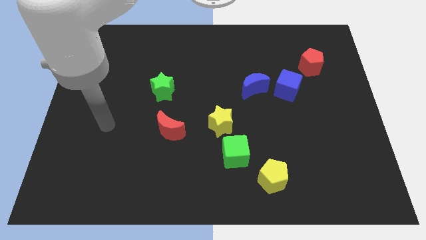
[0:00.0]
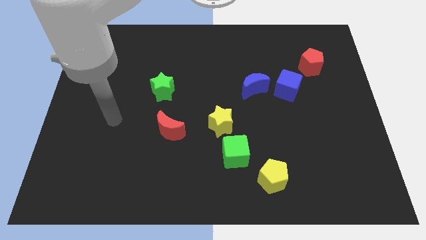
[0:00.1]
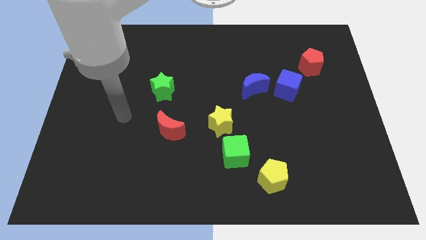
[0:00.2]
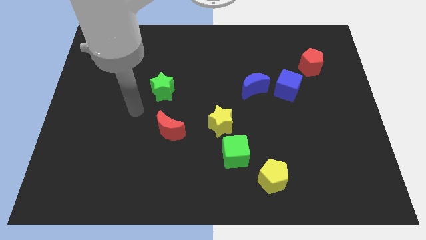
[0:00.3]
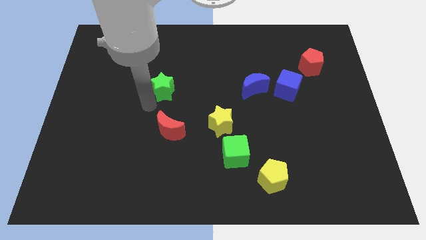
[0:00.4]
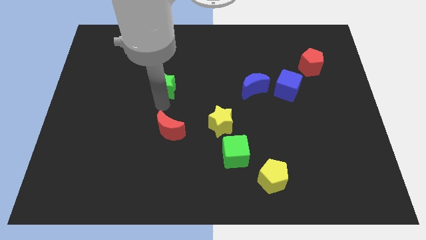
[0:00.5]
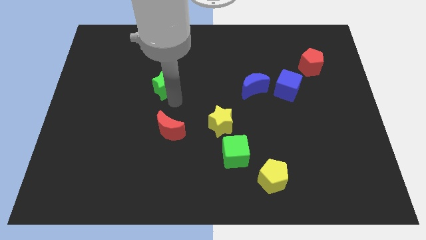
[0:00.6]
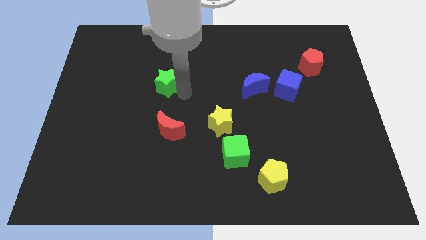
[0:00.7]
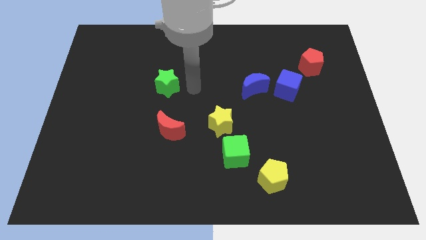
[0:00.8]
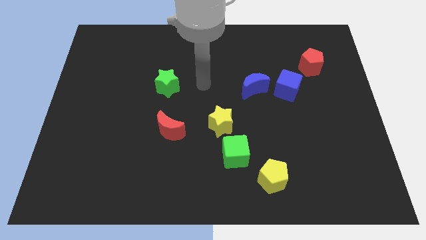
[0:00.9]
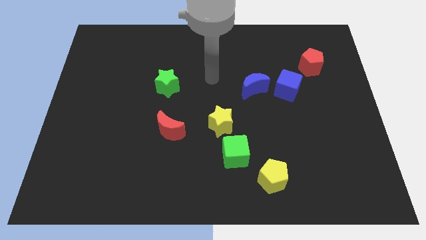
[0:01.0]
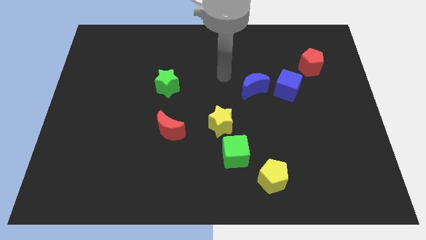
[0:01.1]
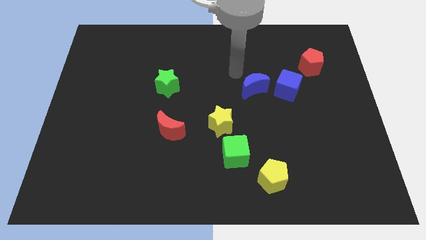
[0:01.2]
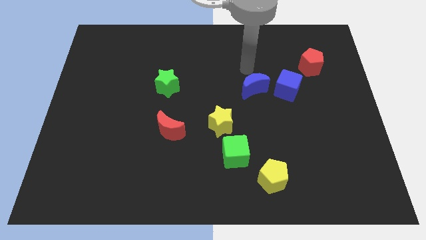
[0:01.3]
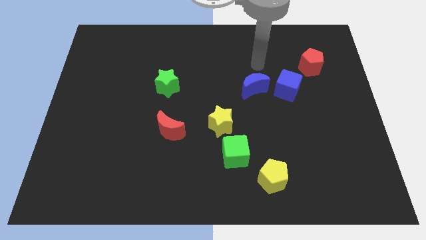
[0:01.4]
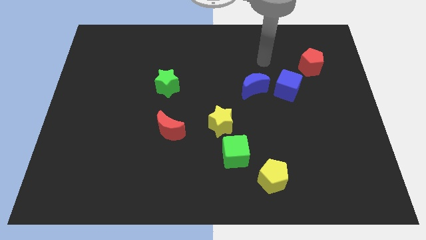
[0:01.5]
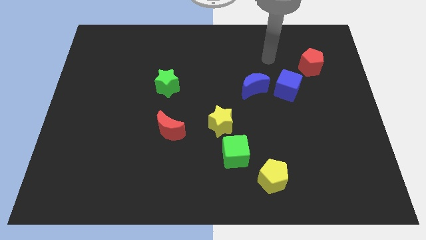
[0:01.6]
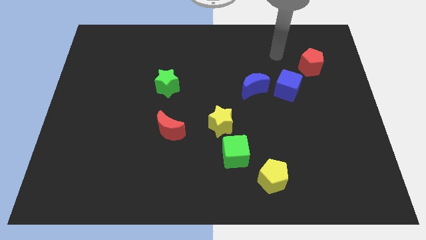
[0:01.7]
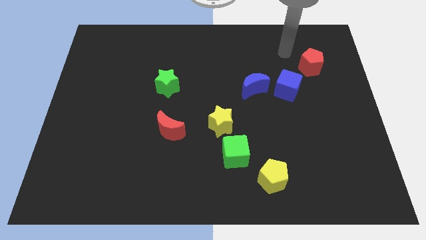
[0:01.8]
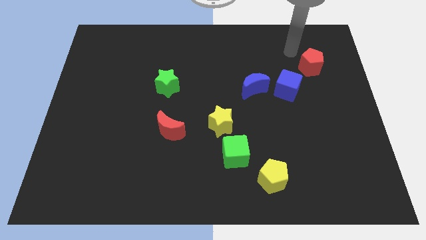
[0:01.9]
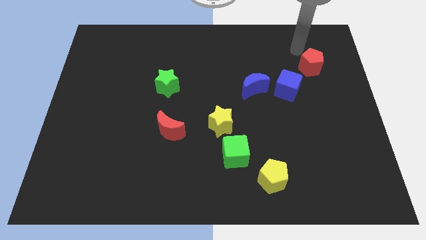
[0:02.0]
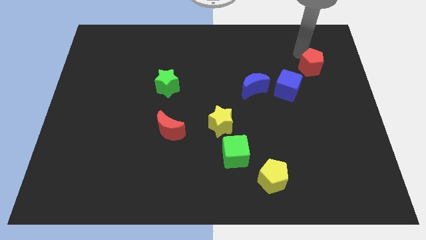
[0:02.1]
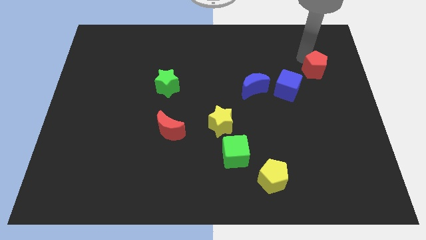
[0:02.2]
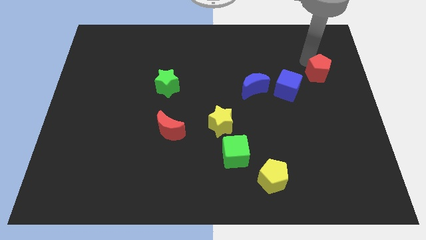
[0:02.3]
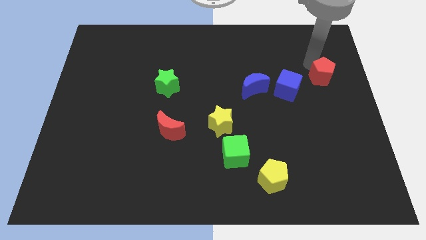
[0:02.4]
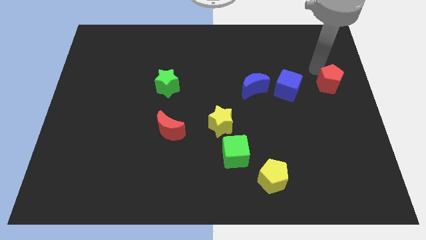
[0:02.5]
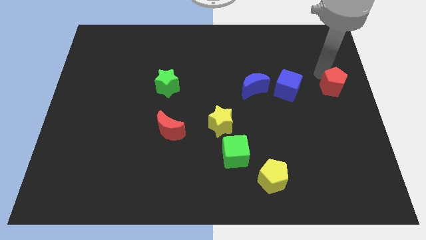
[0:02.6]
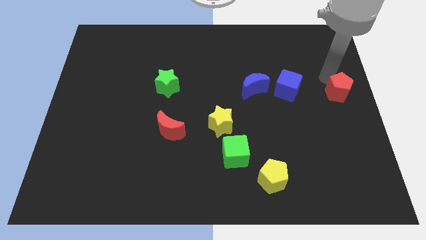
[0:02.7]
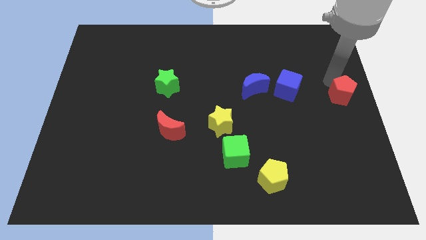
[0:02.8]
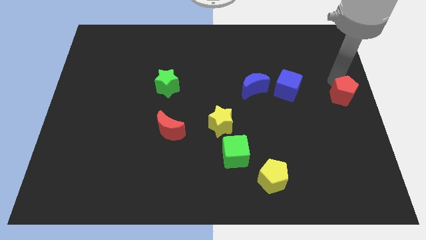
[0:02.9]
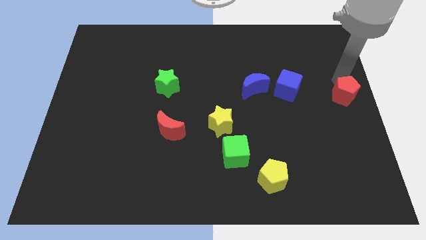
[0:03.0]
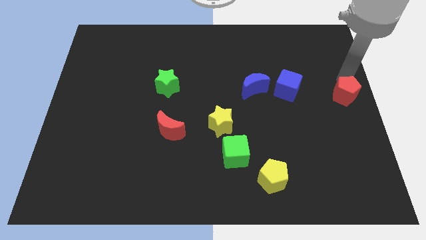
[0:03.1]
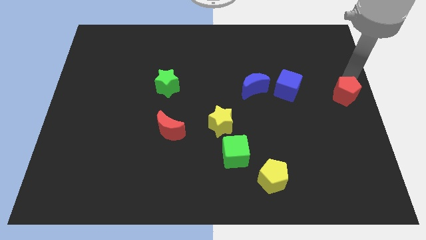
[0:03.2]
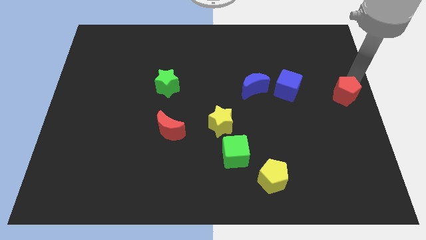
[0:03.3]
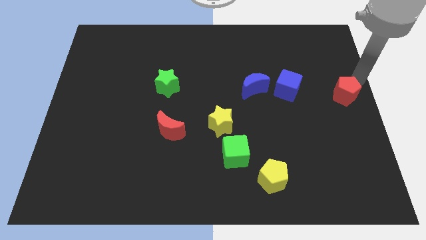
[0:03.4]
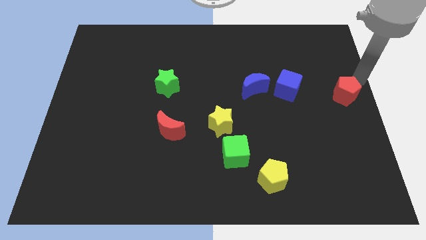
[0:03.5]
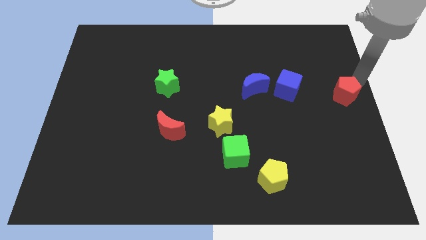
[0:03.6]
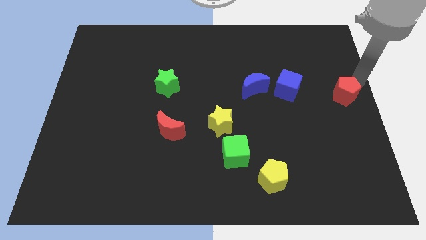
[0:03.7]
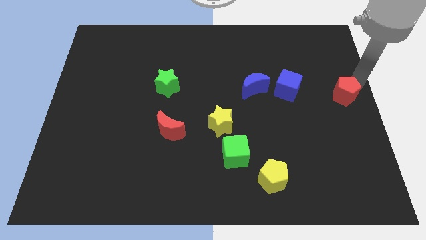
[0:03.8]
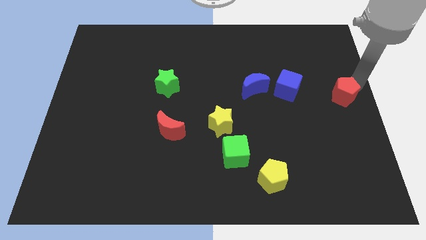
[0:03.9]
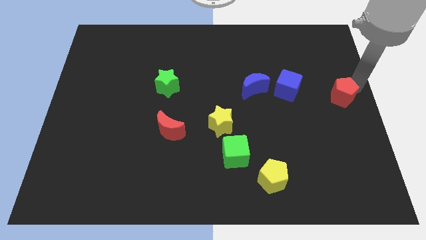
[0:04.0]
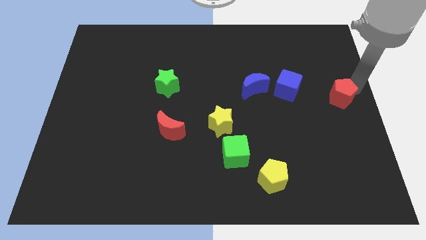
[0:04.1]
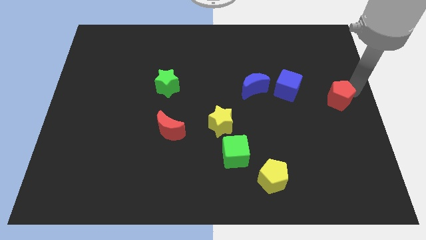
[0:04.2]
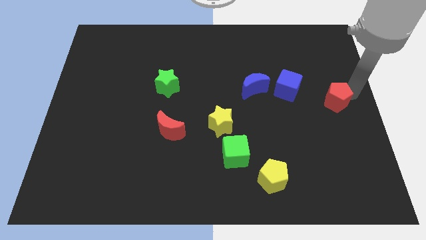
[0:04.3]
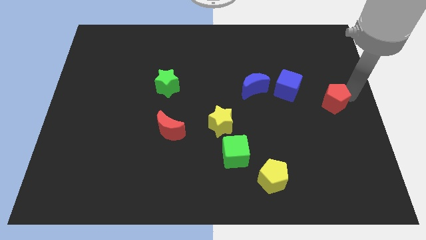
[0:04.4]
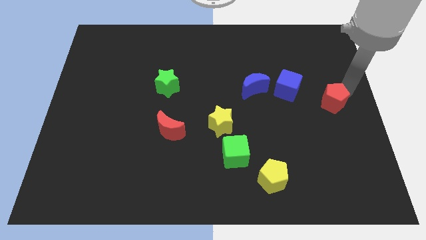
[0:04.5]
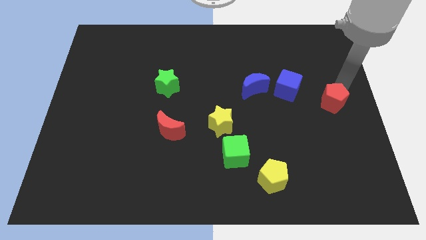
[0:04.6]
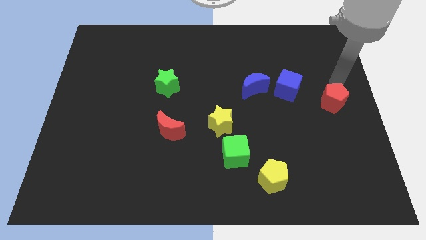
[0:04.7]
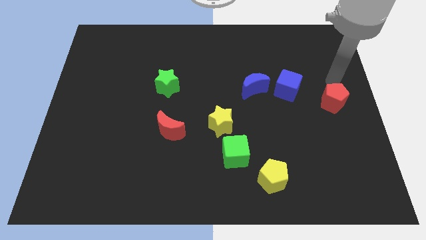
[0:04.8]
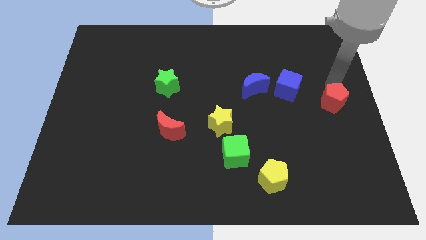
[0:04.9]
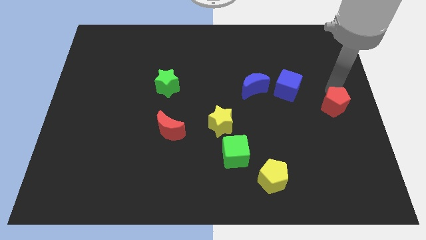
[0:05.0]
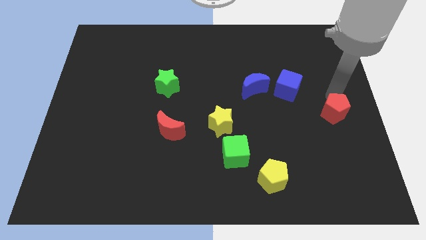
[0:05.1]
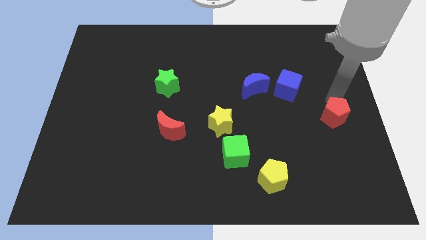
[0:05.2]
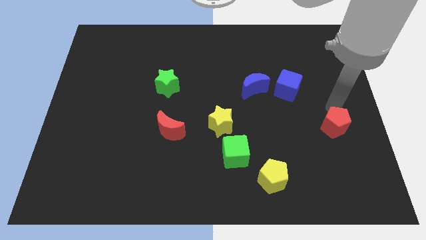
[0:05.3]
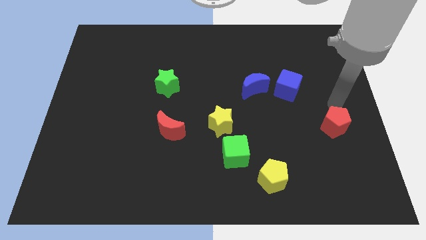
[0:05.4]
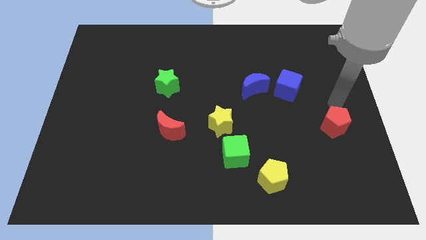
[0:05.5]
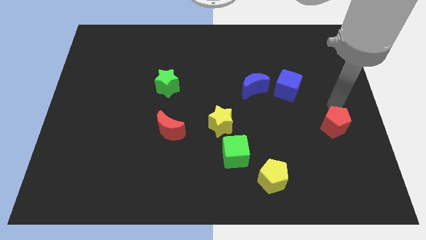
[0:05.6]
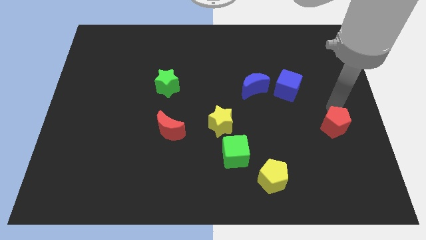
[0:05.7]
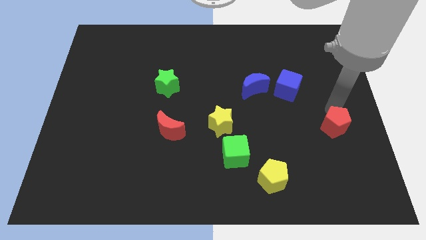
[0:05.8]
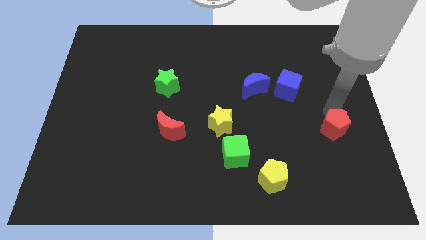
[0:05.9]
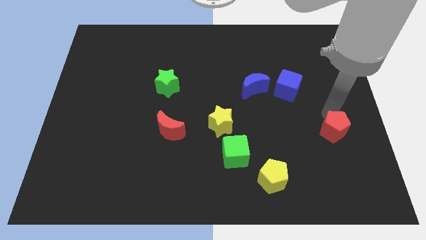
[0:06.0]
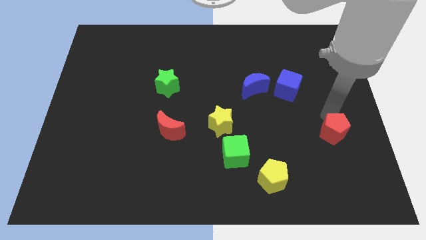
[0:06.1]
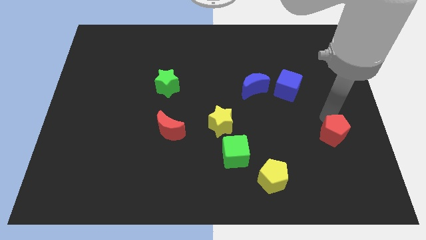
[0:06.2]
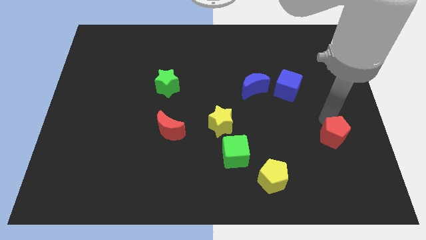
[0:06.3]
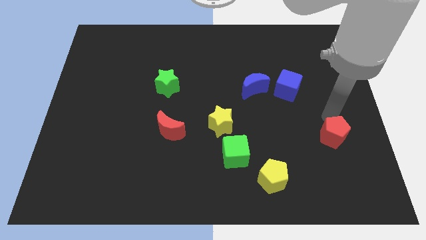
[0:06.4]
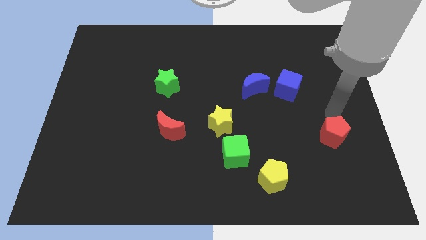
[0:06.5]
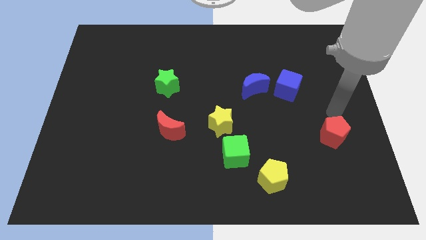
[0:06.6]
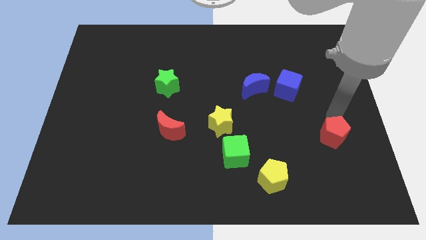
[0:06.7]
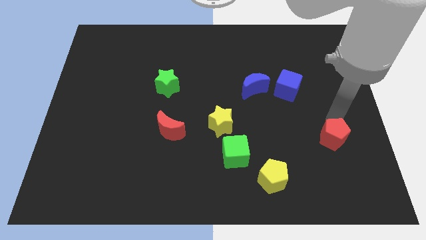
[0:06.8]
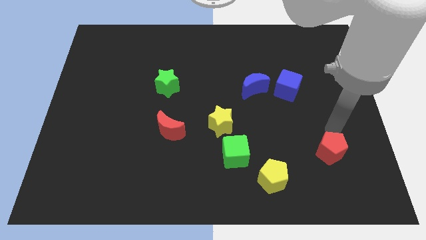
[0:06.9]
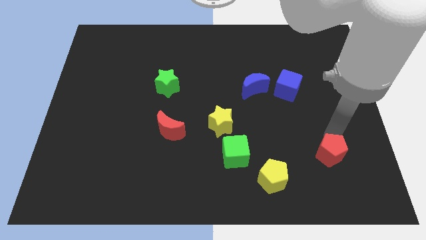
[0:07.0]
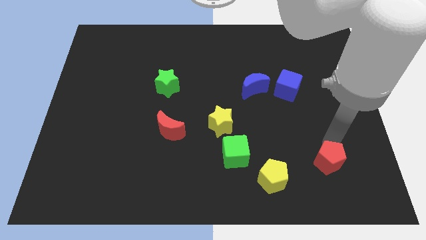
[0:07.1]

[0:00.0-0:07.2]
push the red pentagon to the right side of the yellow pentagon

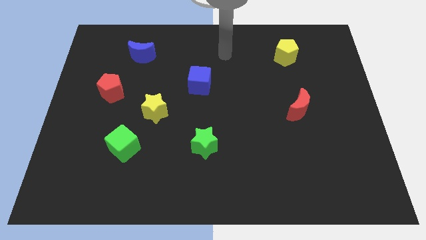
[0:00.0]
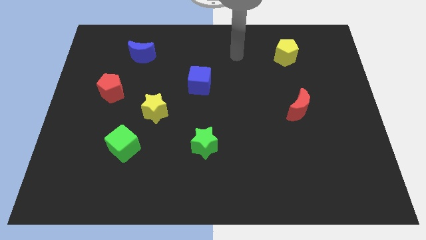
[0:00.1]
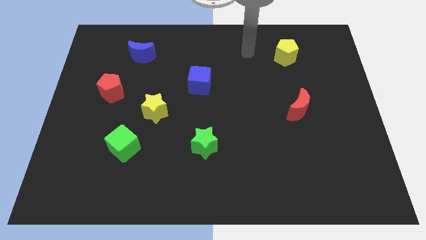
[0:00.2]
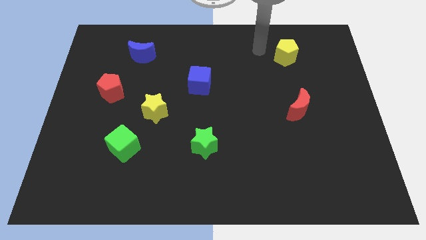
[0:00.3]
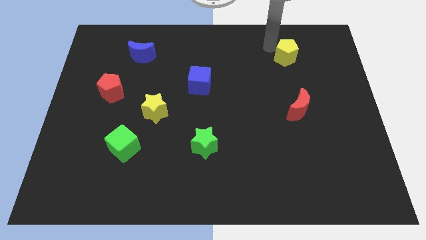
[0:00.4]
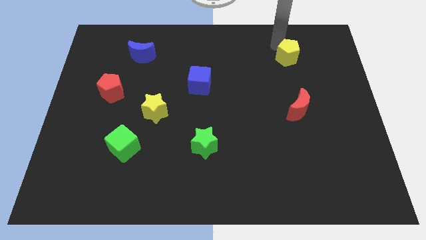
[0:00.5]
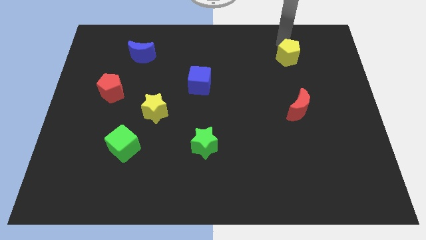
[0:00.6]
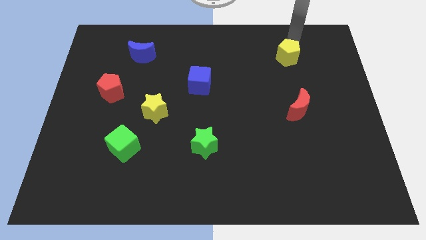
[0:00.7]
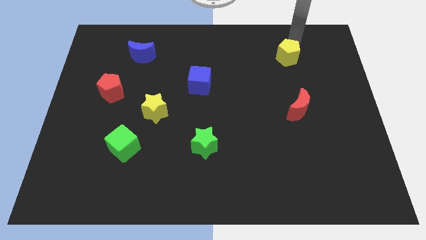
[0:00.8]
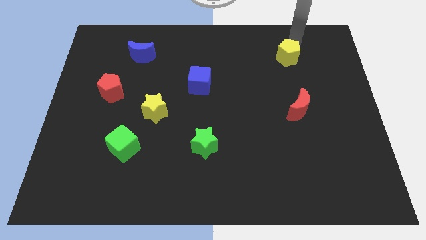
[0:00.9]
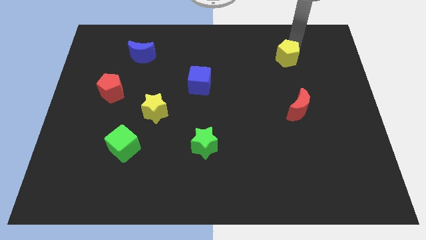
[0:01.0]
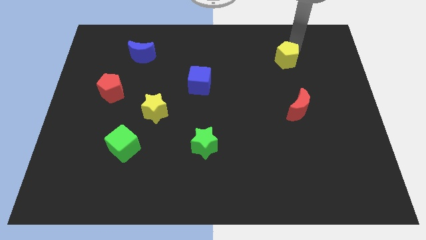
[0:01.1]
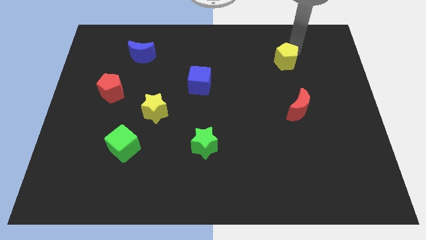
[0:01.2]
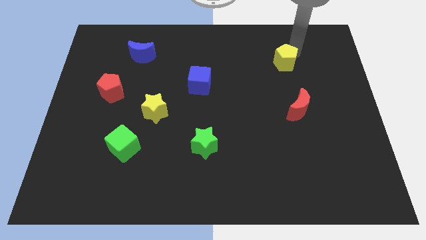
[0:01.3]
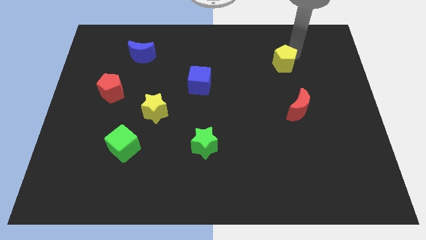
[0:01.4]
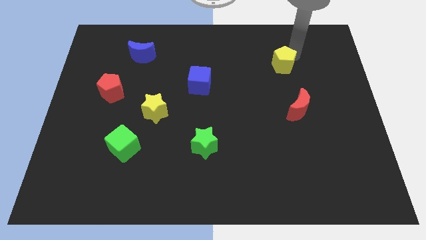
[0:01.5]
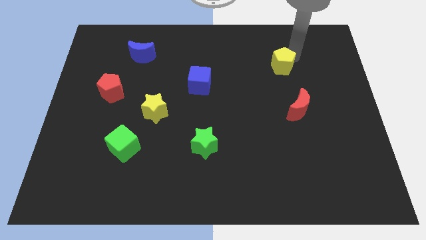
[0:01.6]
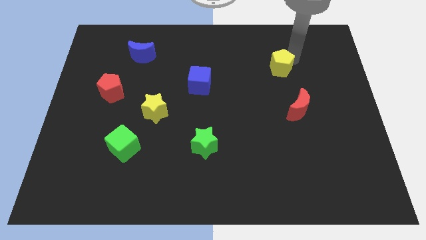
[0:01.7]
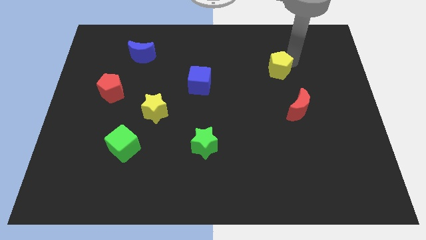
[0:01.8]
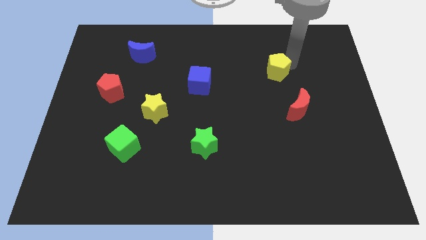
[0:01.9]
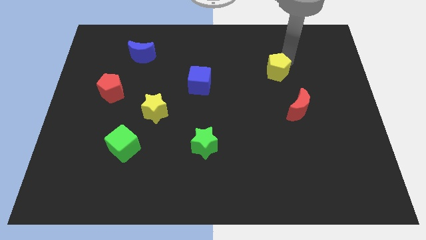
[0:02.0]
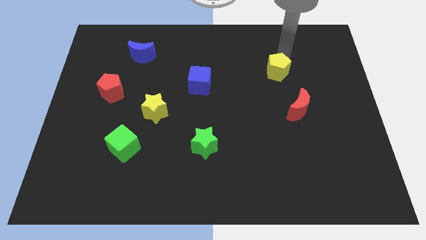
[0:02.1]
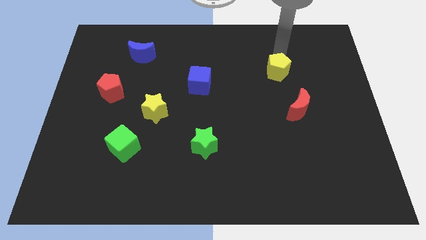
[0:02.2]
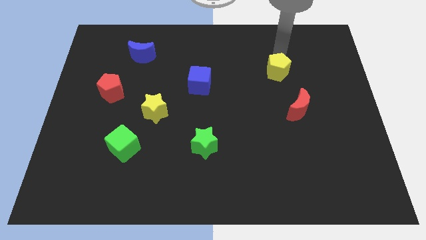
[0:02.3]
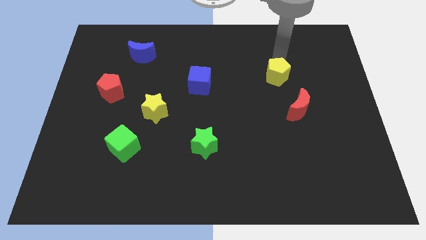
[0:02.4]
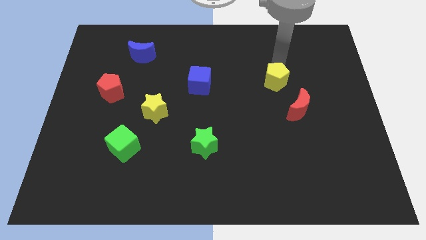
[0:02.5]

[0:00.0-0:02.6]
slide the yellow pentagon to the top left of the red moon
